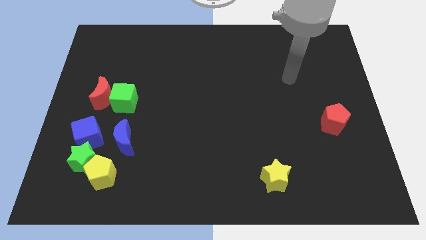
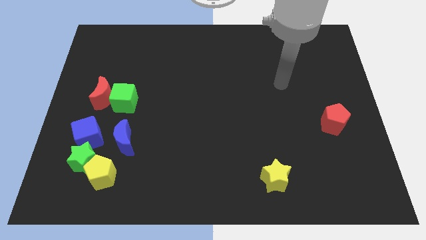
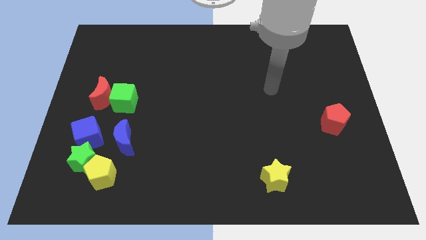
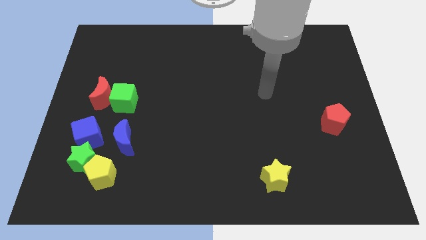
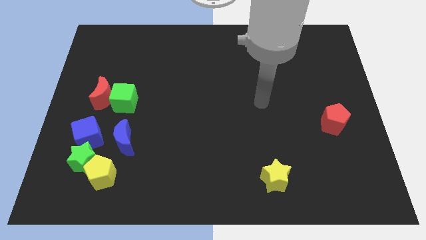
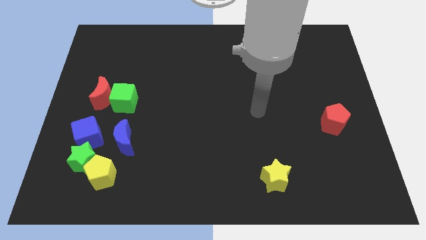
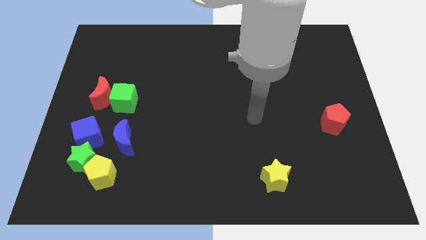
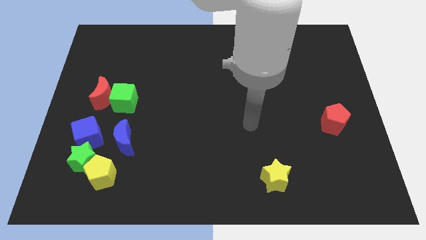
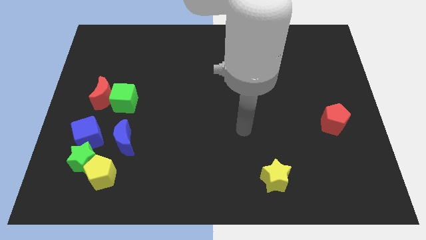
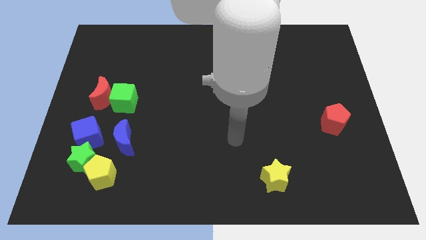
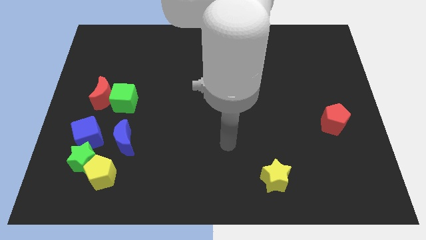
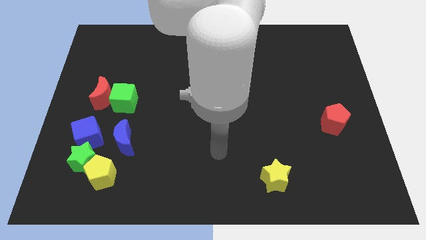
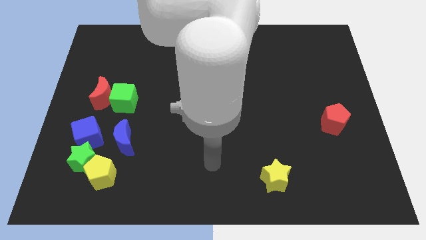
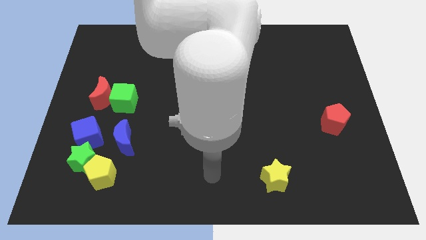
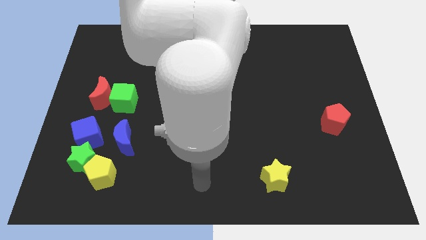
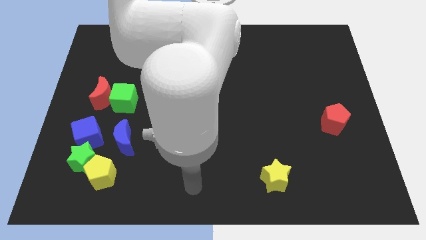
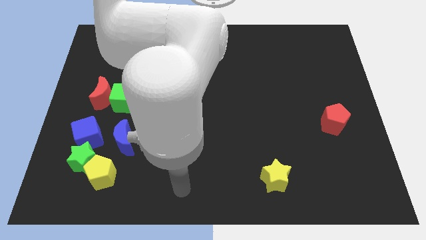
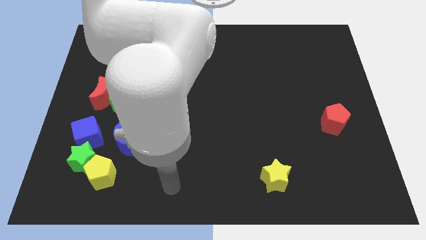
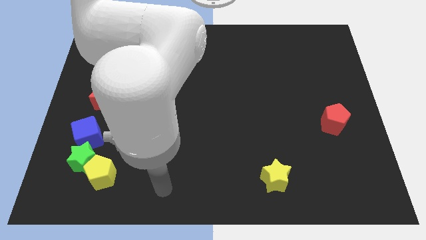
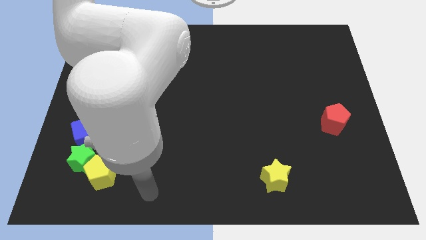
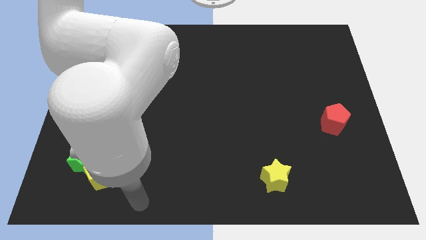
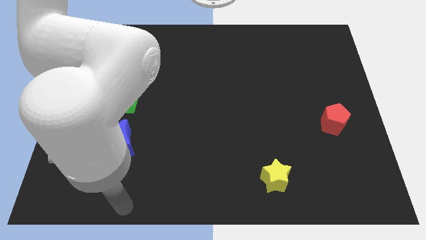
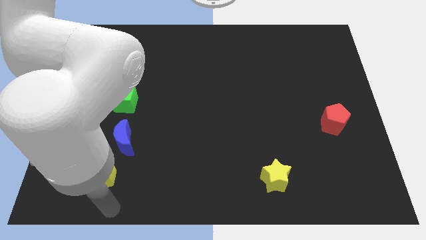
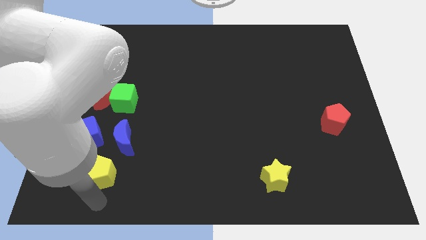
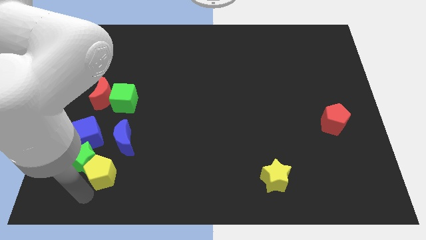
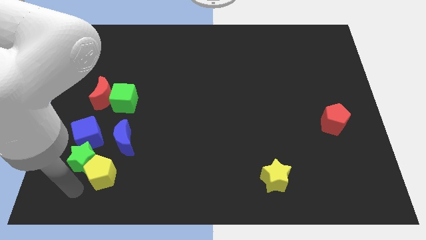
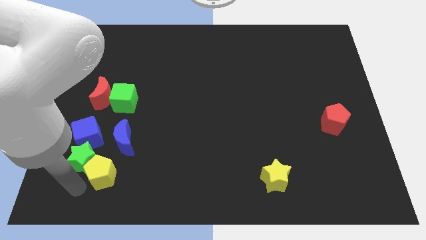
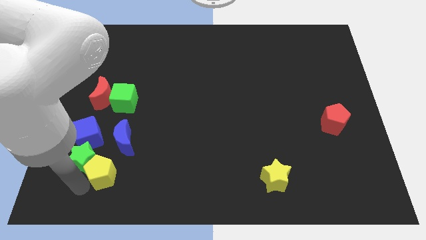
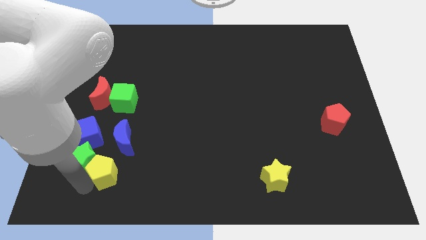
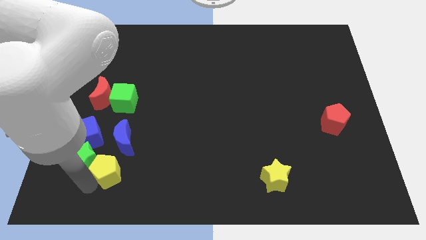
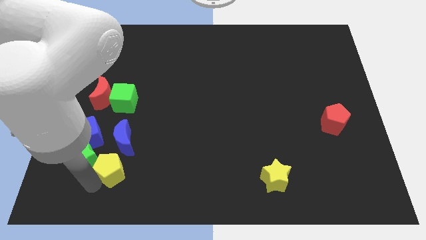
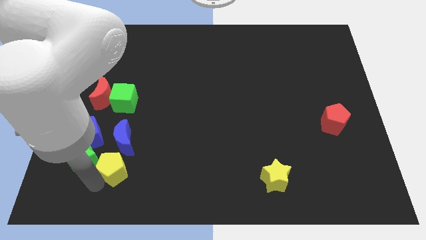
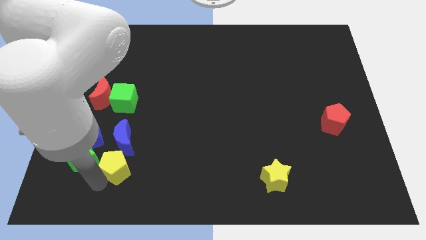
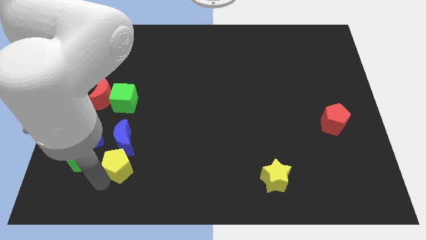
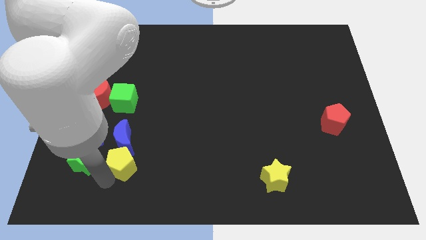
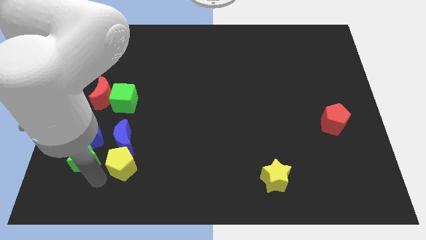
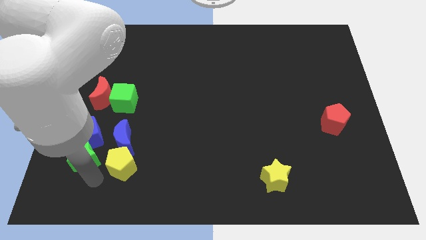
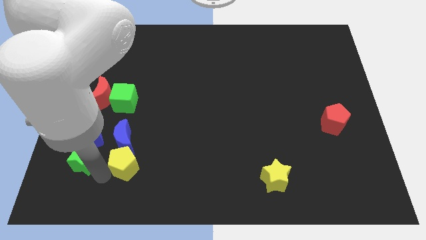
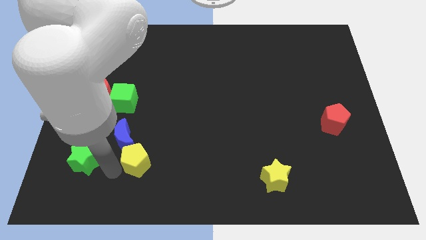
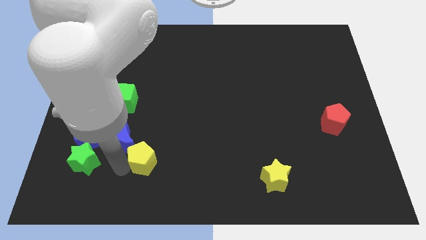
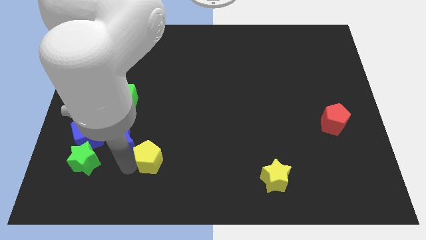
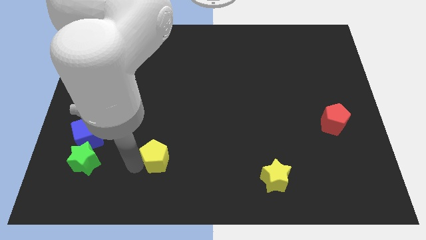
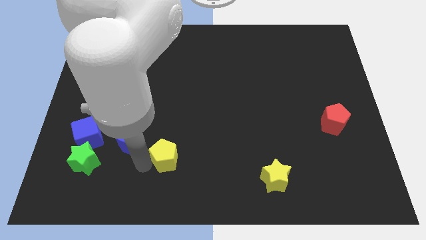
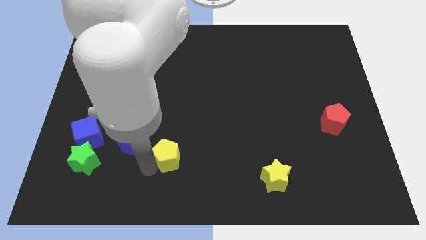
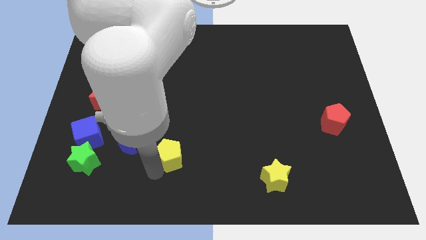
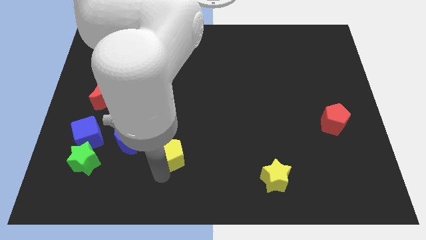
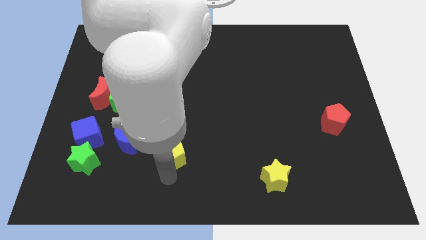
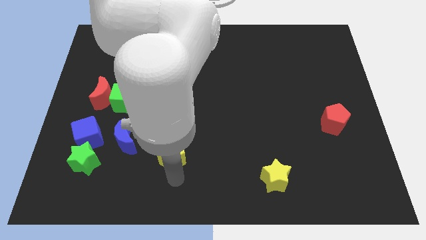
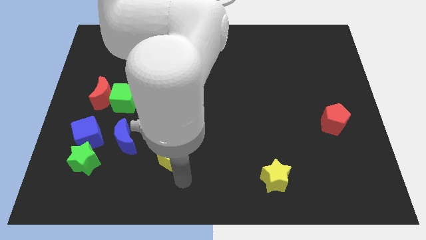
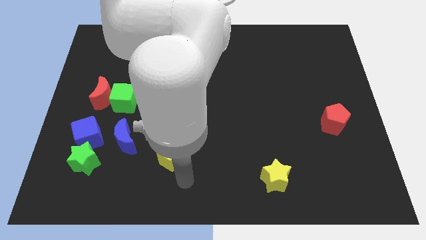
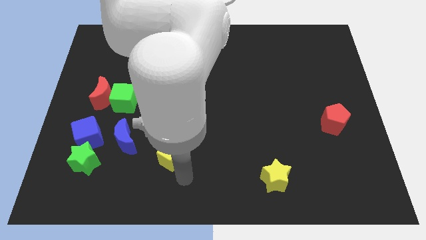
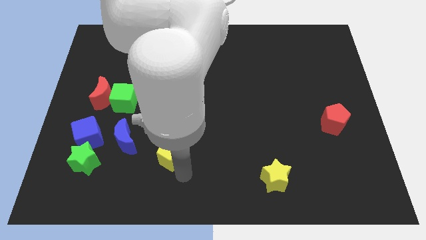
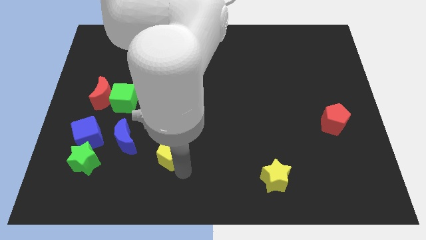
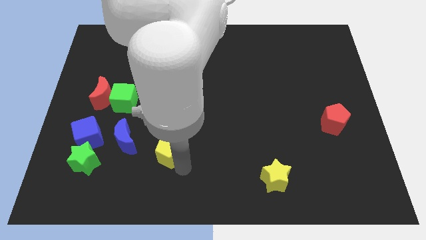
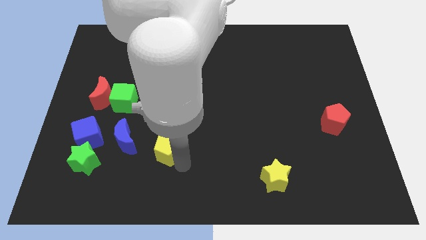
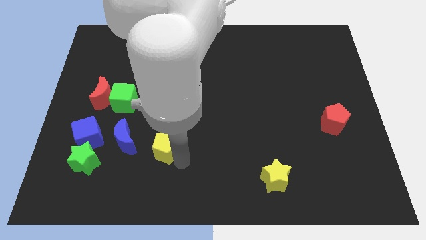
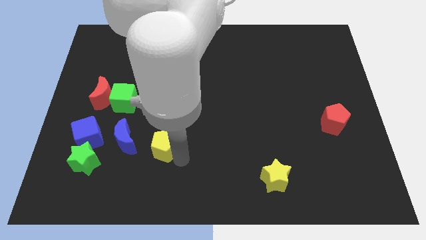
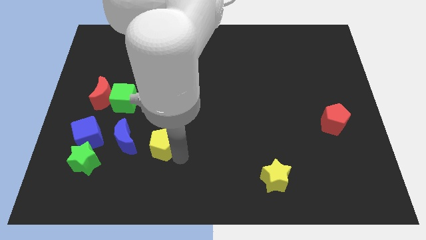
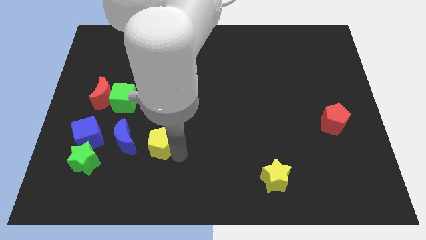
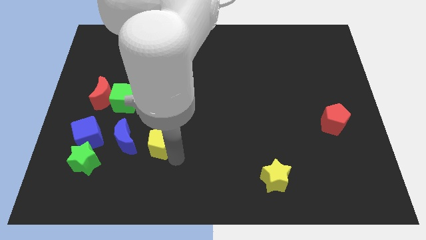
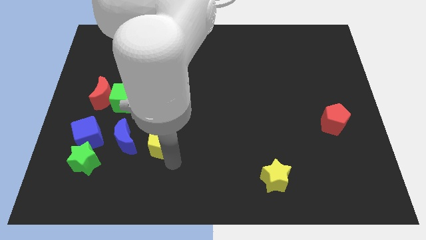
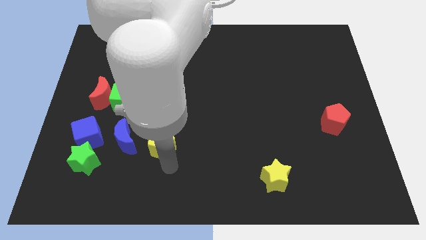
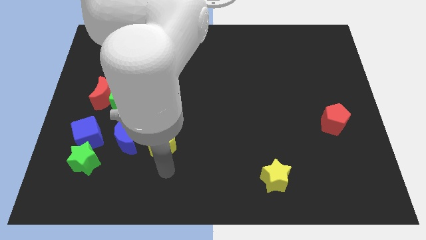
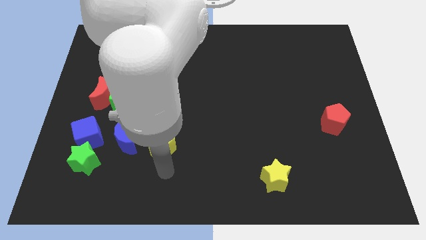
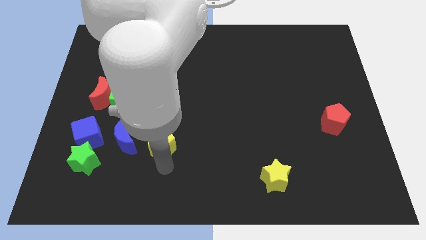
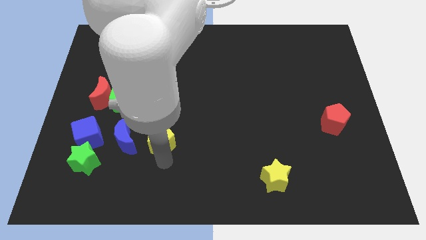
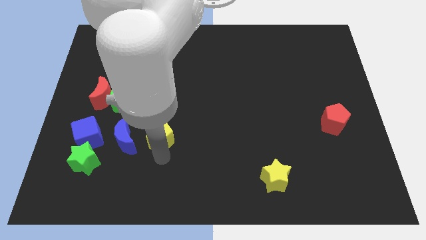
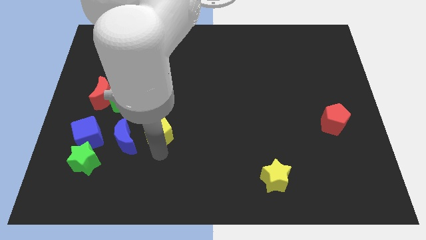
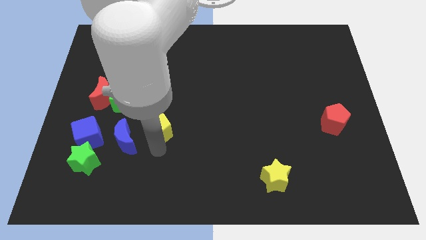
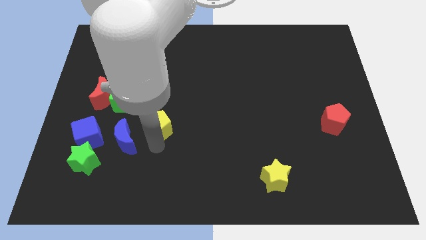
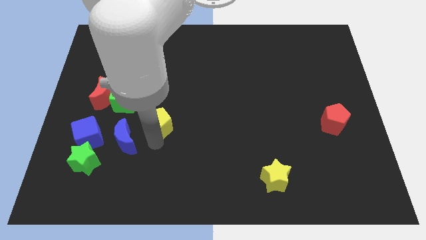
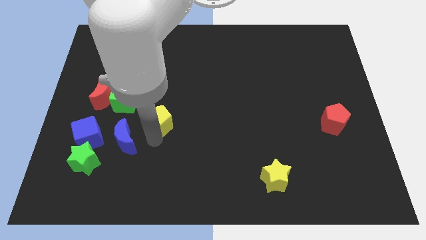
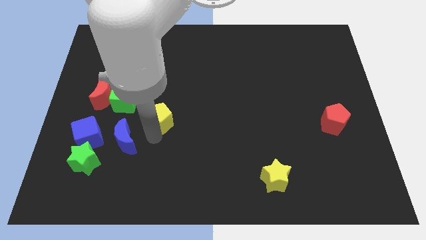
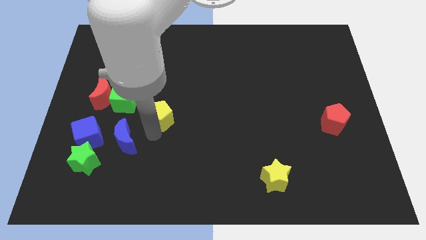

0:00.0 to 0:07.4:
slide the yellow pentagon to the right side of the green cube

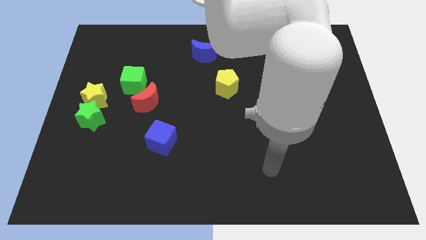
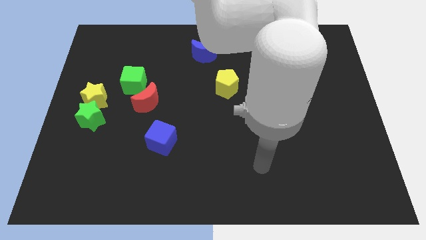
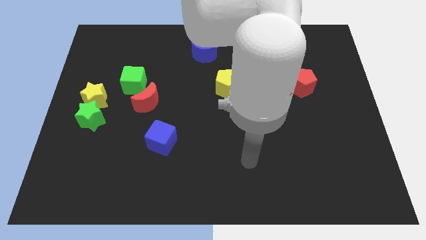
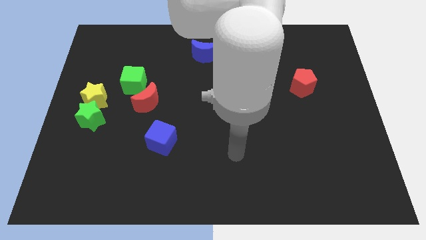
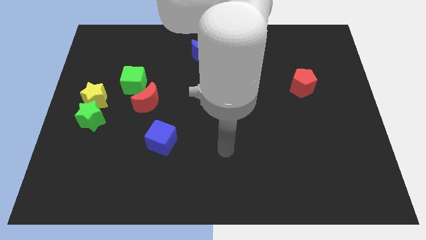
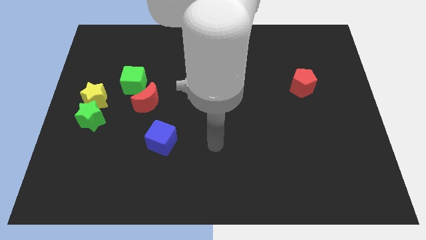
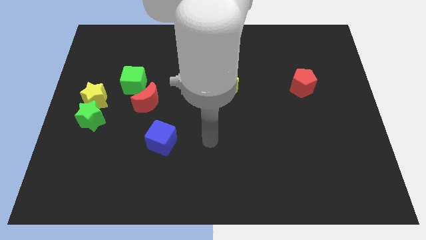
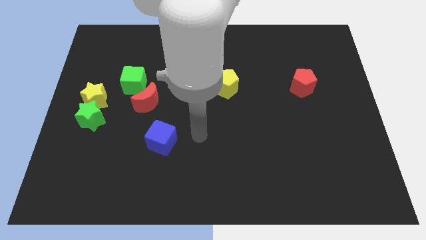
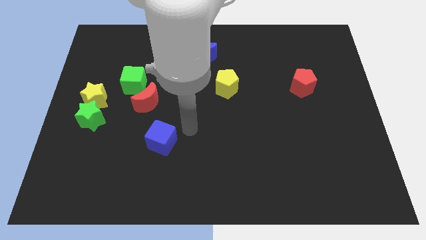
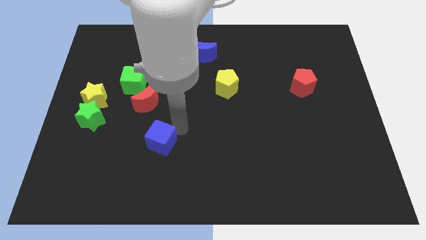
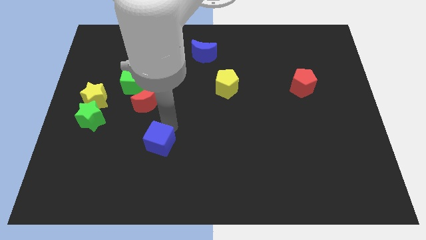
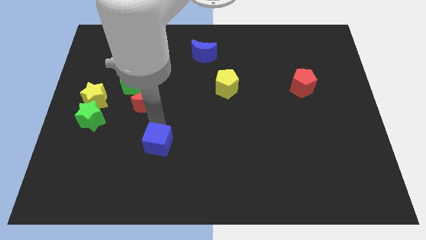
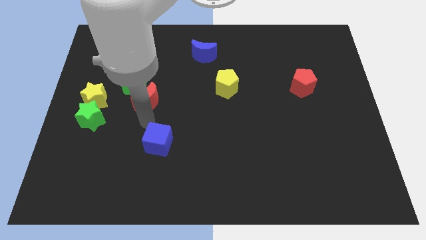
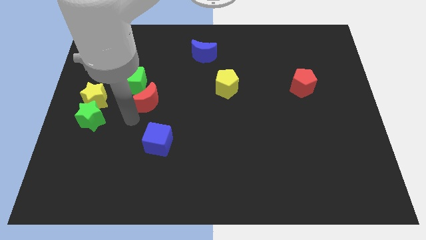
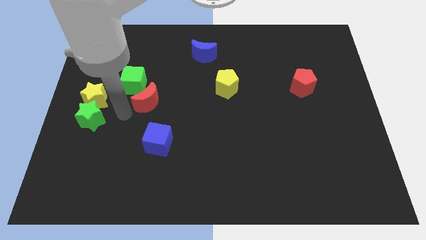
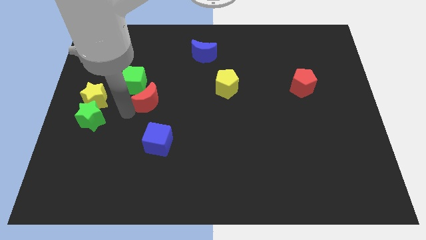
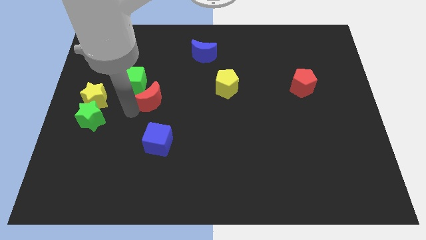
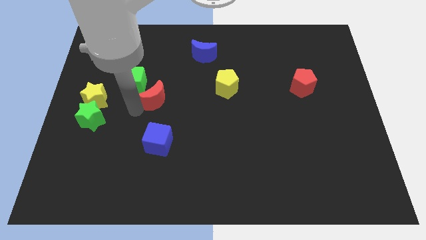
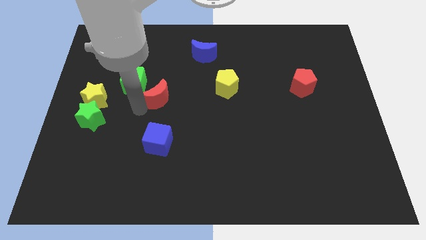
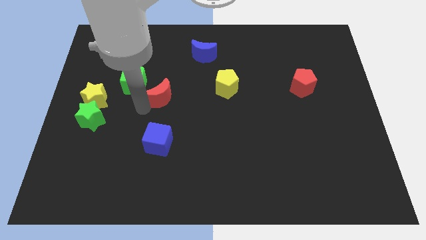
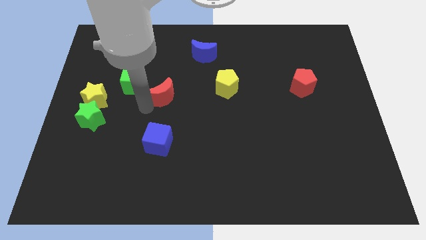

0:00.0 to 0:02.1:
slide the red moon to the left of the yellow pentagon
